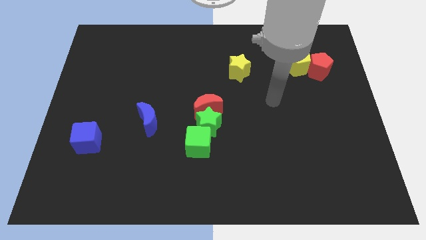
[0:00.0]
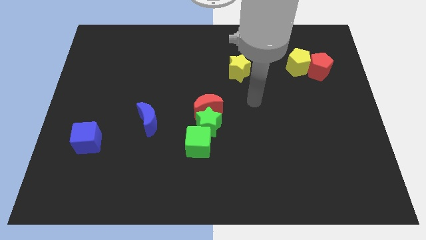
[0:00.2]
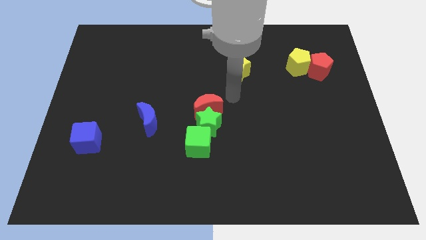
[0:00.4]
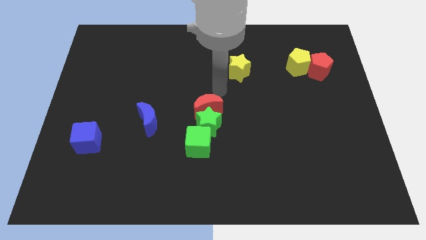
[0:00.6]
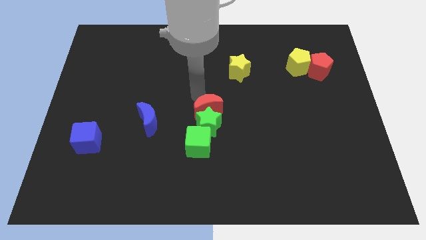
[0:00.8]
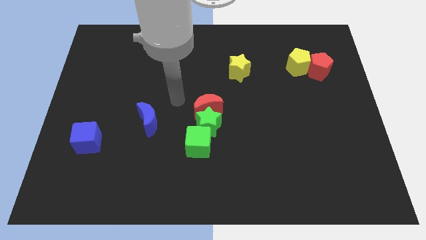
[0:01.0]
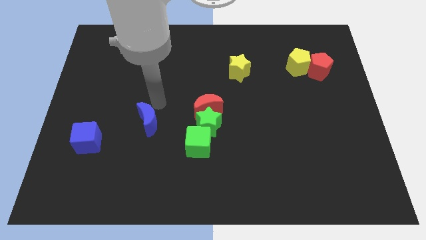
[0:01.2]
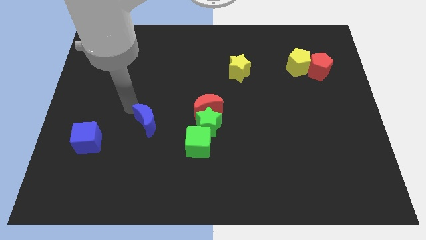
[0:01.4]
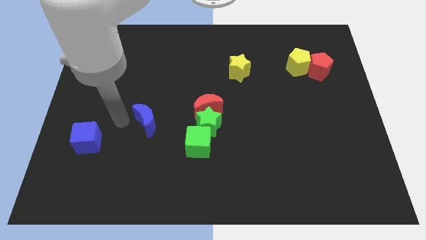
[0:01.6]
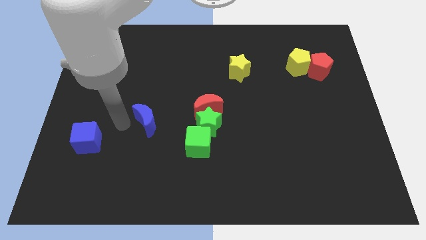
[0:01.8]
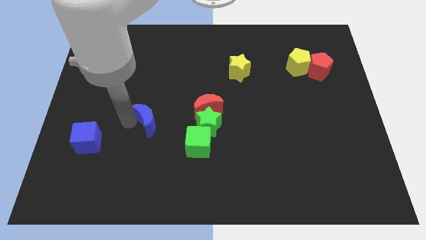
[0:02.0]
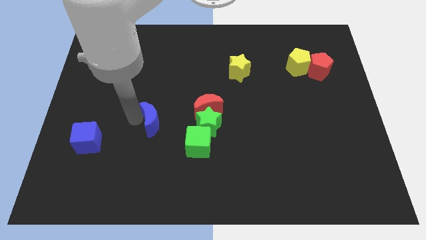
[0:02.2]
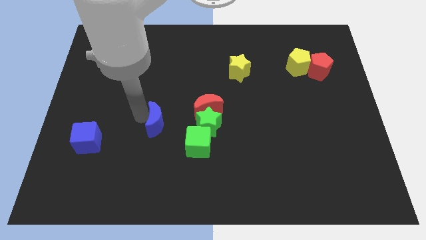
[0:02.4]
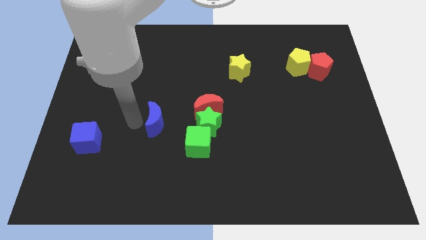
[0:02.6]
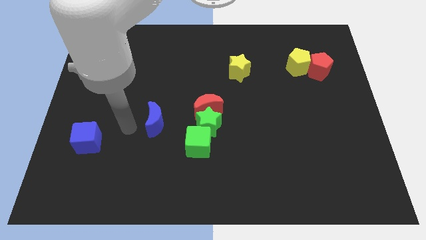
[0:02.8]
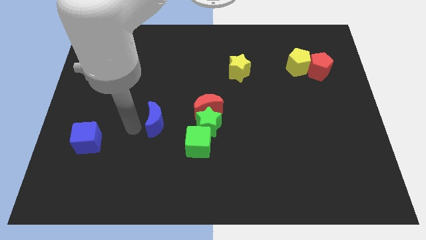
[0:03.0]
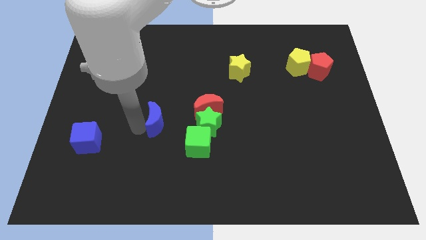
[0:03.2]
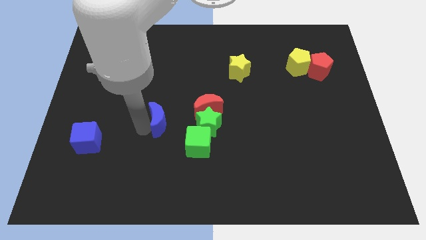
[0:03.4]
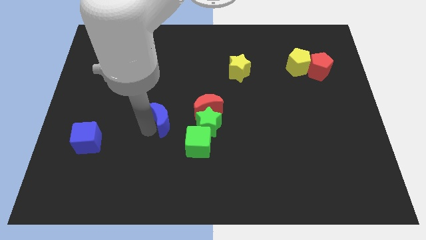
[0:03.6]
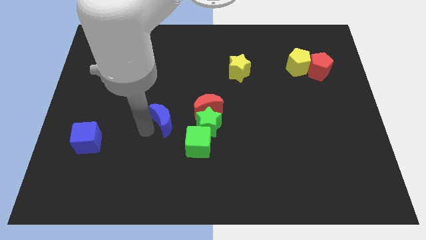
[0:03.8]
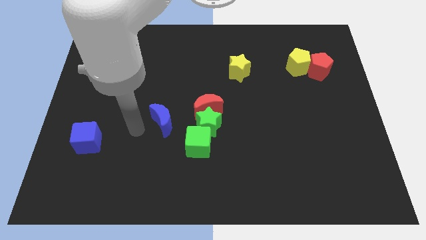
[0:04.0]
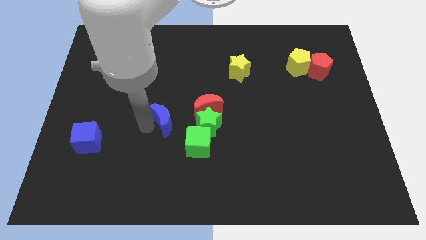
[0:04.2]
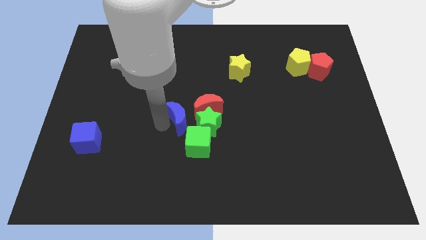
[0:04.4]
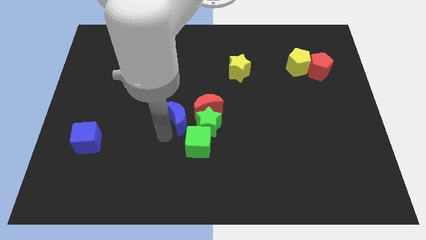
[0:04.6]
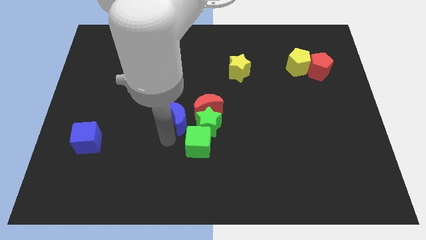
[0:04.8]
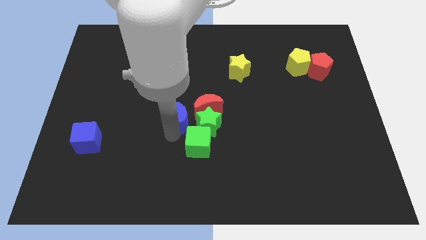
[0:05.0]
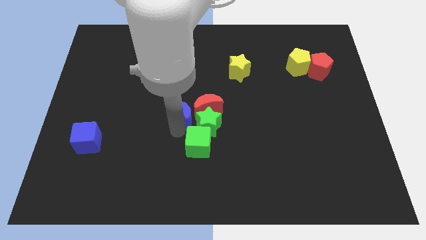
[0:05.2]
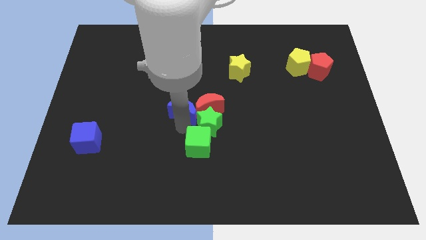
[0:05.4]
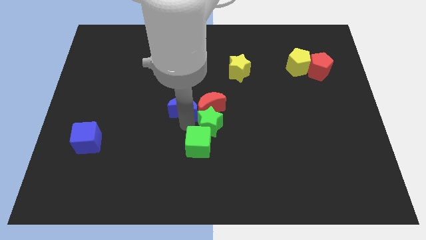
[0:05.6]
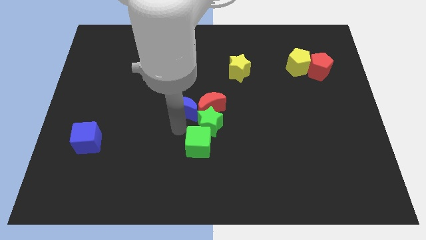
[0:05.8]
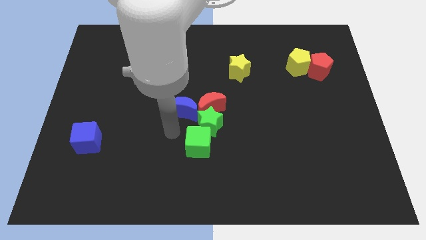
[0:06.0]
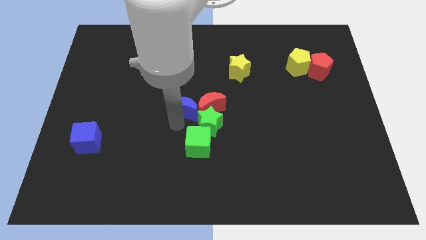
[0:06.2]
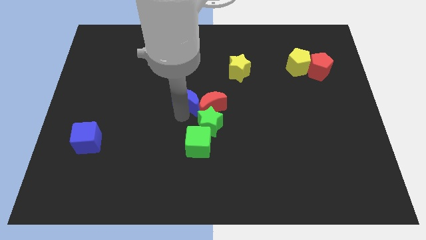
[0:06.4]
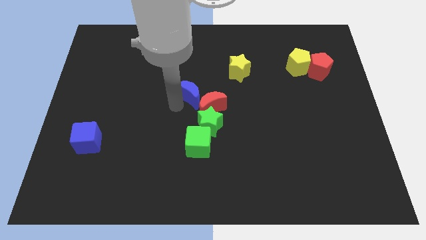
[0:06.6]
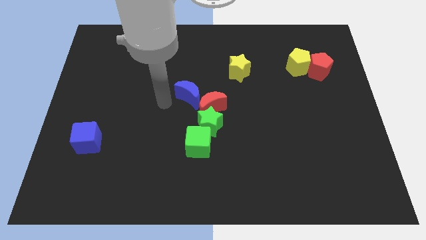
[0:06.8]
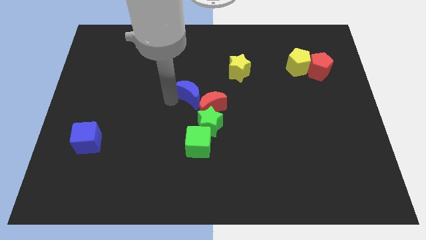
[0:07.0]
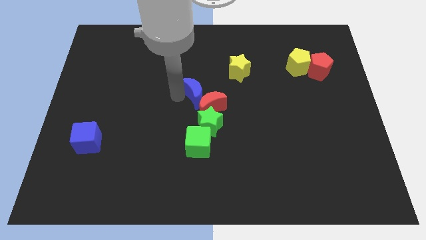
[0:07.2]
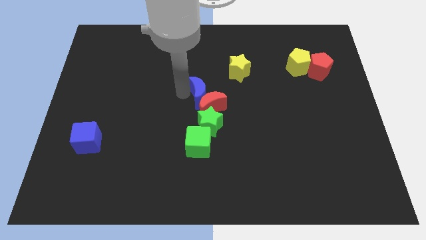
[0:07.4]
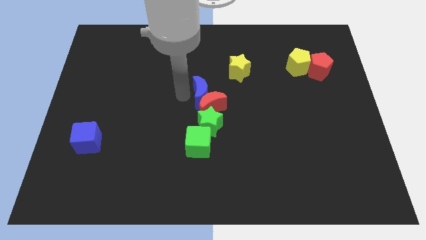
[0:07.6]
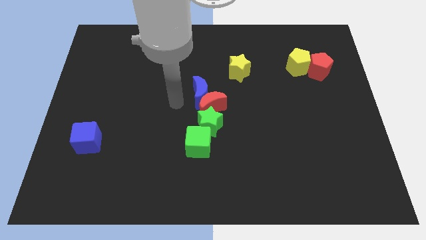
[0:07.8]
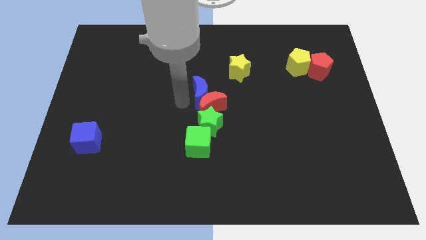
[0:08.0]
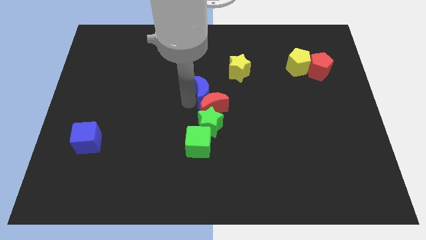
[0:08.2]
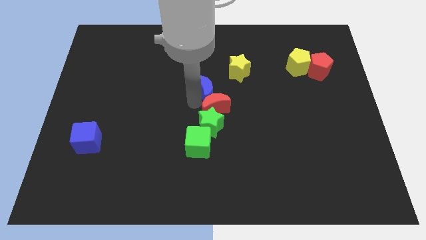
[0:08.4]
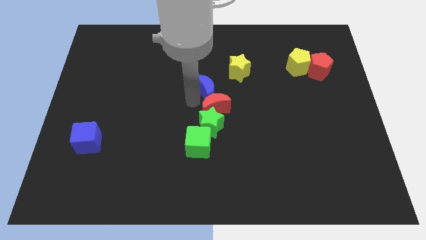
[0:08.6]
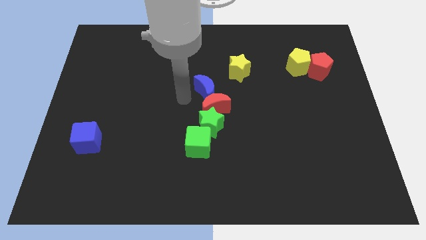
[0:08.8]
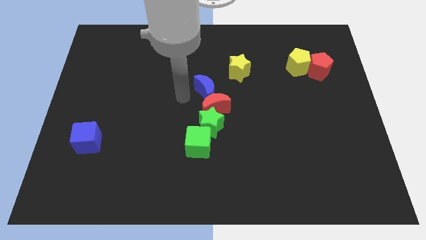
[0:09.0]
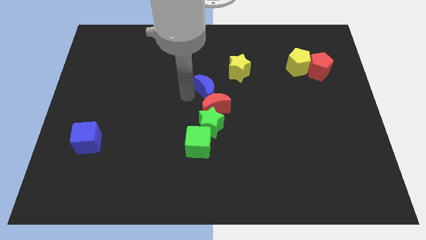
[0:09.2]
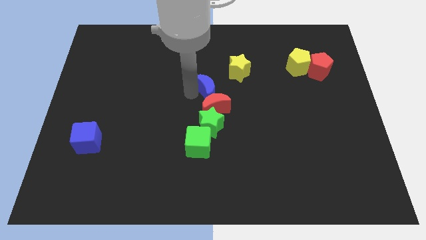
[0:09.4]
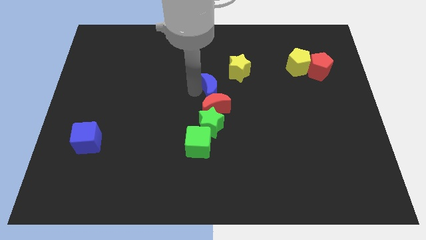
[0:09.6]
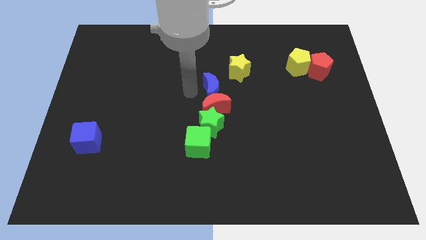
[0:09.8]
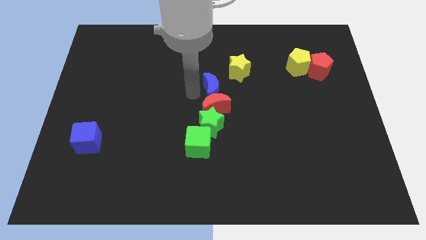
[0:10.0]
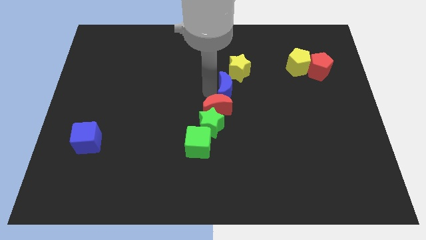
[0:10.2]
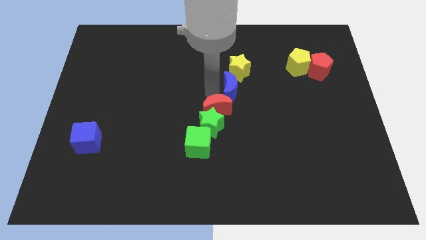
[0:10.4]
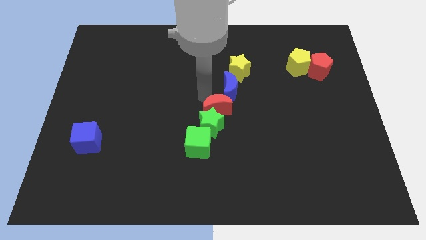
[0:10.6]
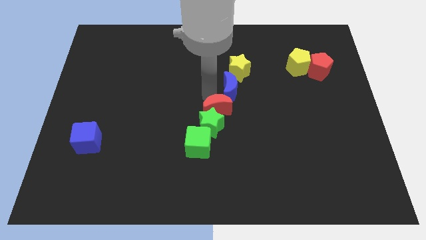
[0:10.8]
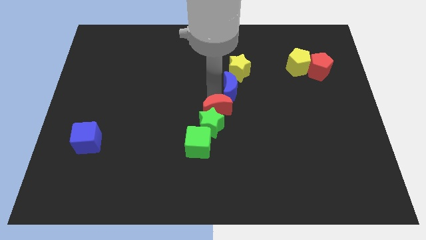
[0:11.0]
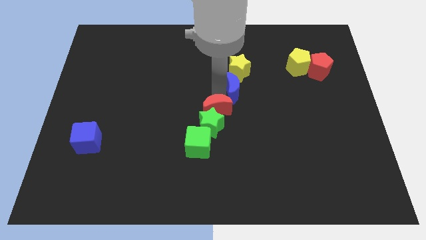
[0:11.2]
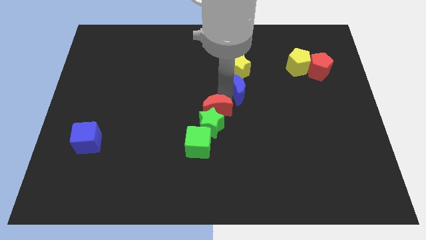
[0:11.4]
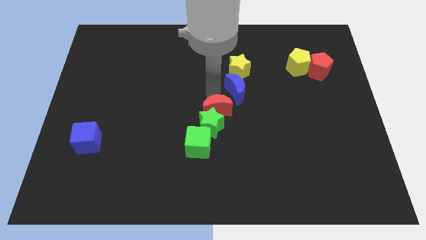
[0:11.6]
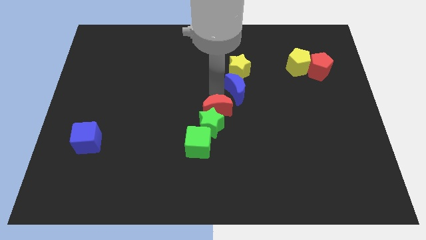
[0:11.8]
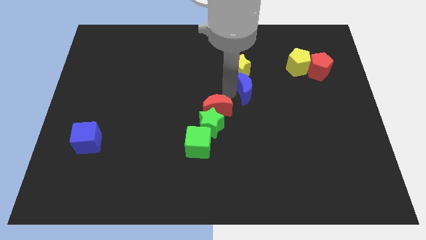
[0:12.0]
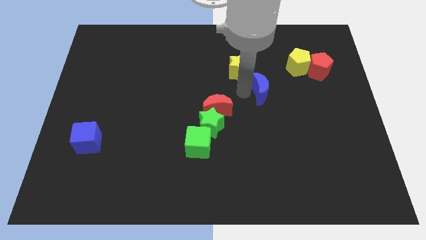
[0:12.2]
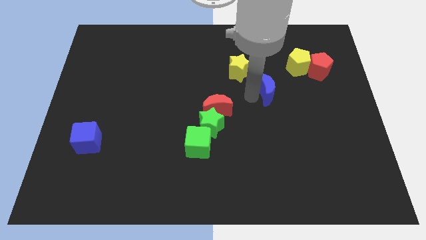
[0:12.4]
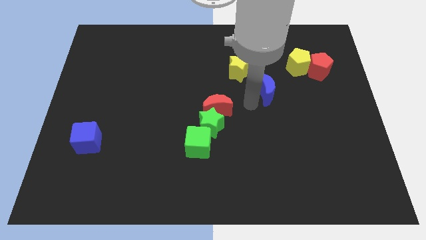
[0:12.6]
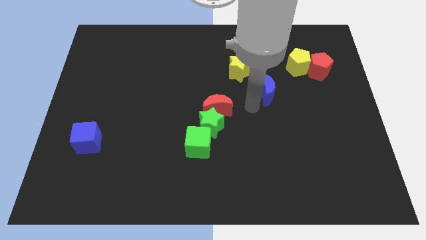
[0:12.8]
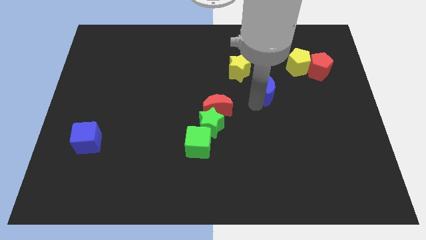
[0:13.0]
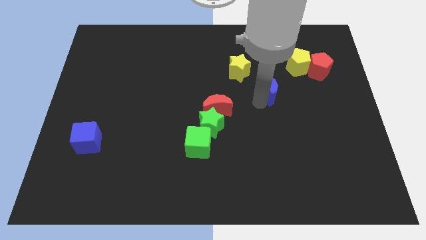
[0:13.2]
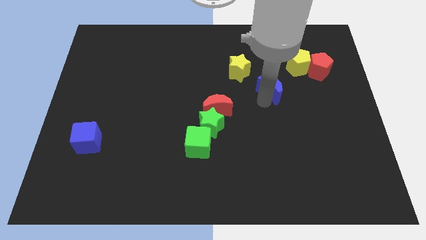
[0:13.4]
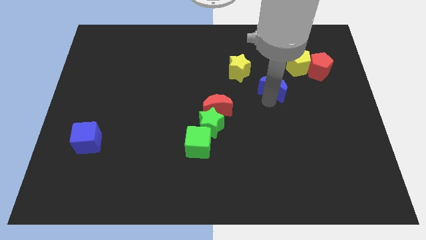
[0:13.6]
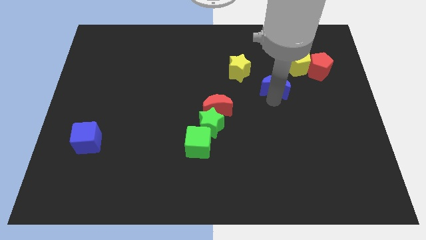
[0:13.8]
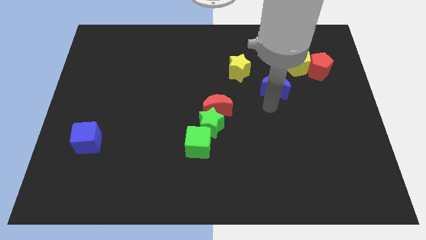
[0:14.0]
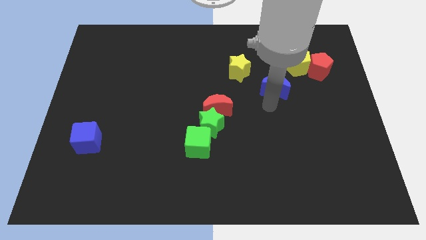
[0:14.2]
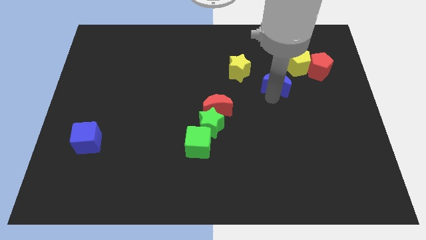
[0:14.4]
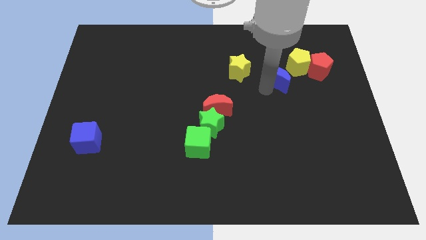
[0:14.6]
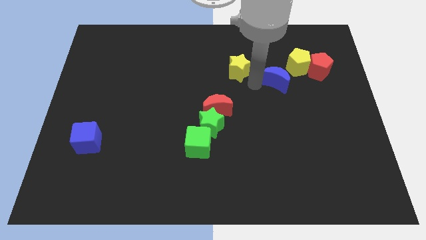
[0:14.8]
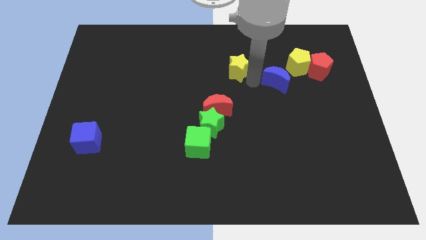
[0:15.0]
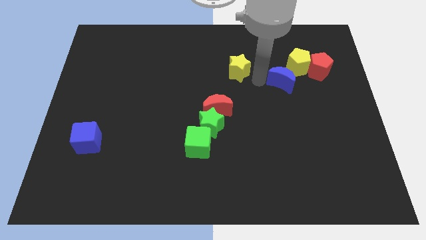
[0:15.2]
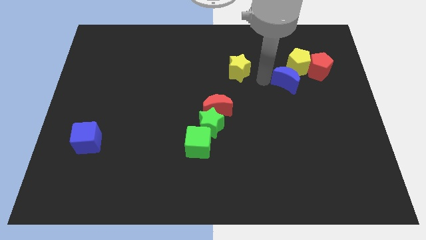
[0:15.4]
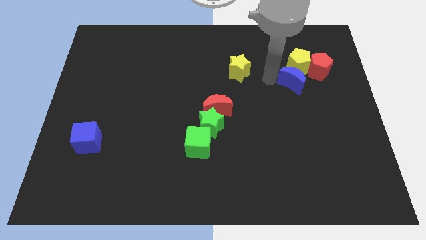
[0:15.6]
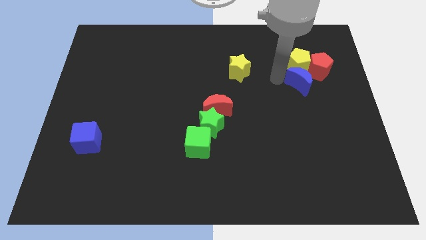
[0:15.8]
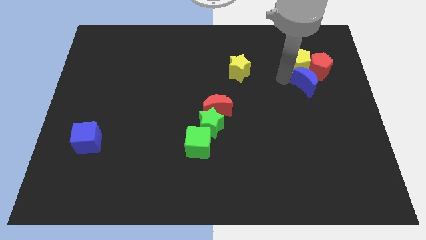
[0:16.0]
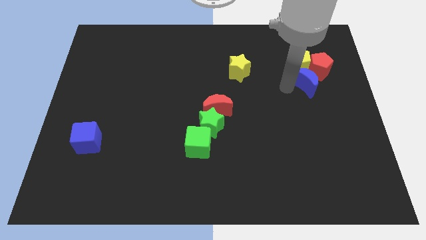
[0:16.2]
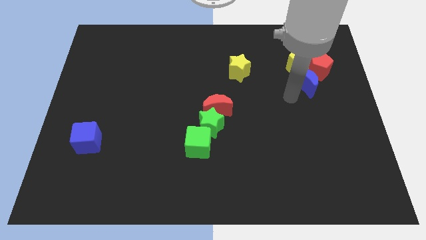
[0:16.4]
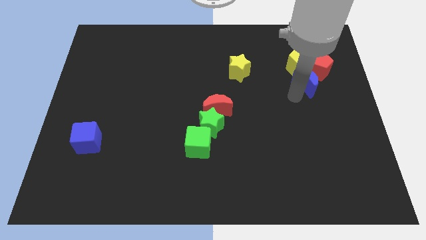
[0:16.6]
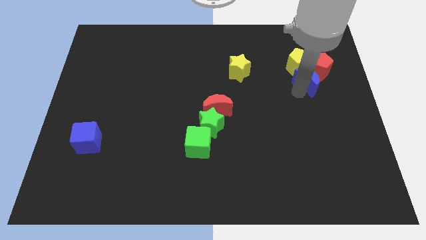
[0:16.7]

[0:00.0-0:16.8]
move the blue moon to the red pentagon
